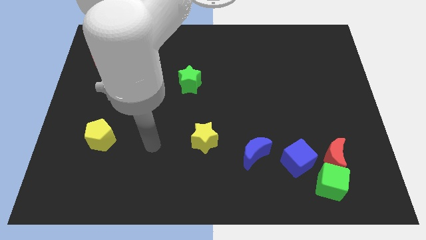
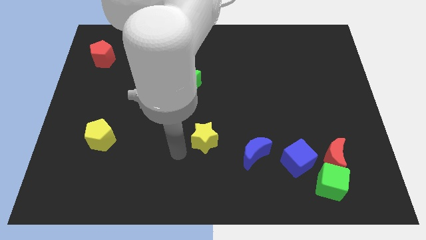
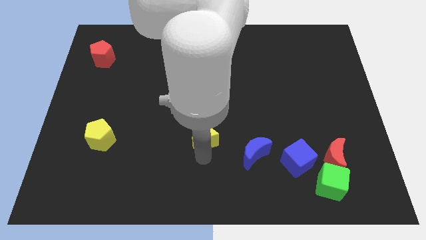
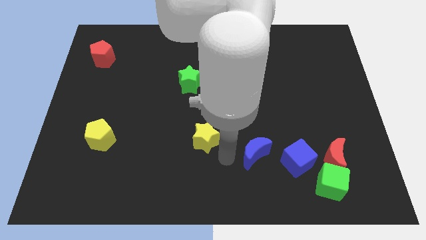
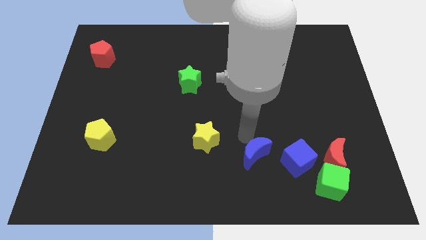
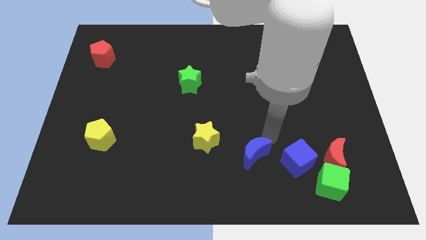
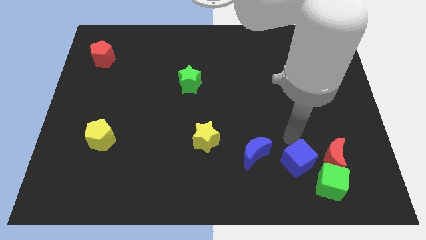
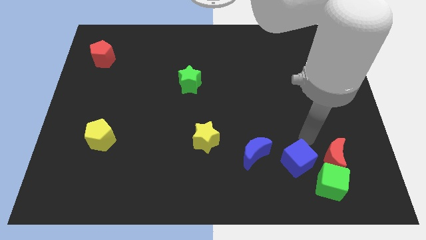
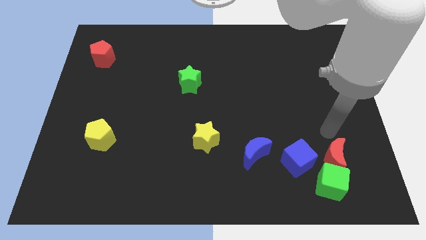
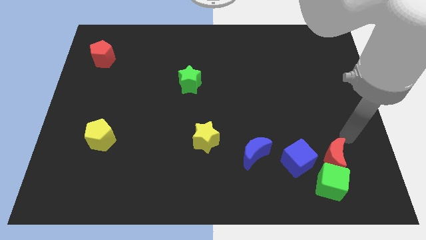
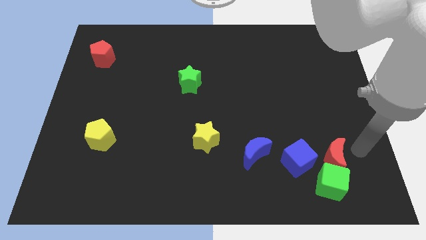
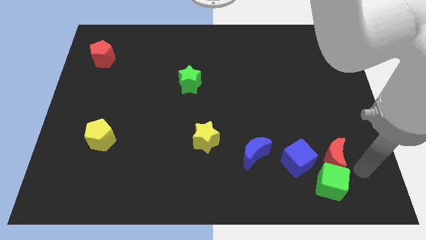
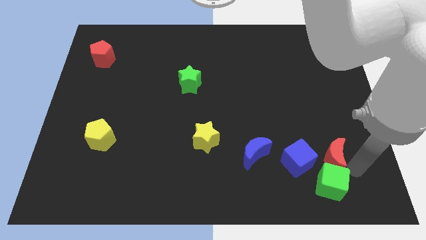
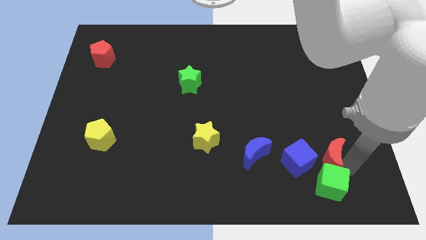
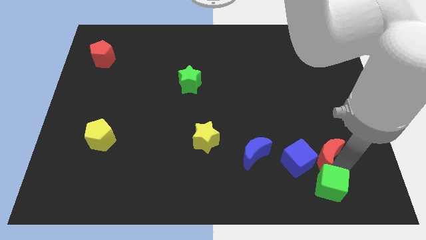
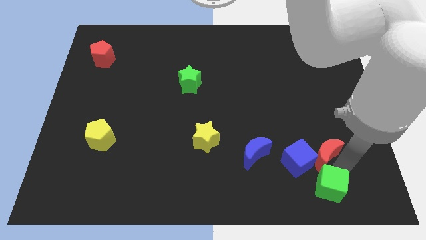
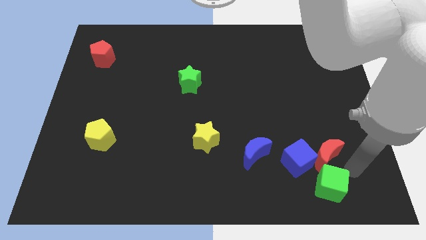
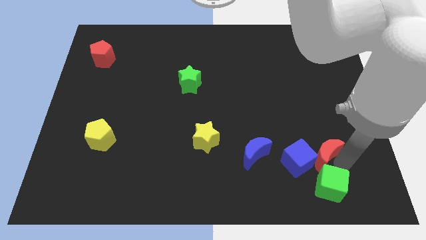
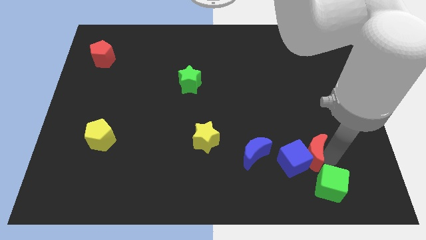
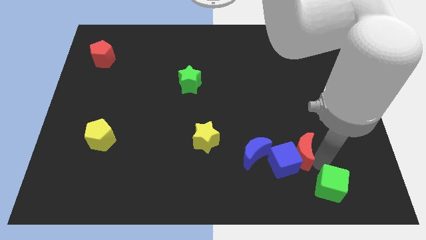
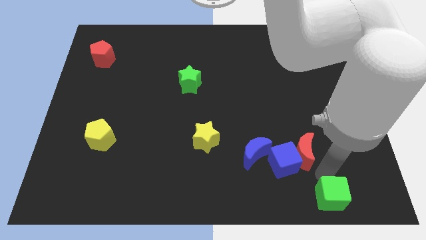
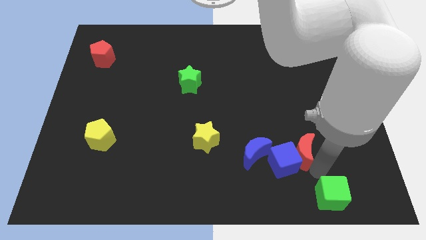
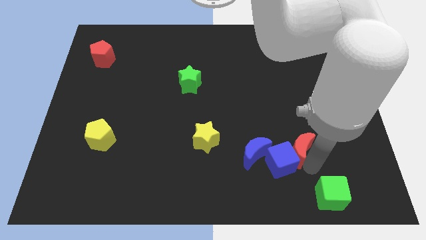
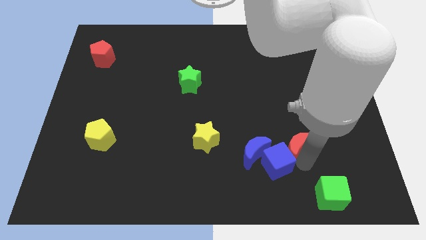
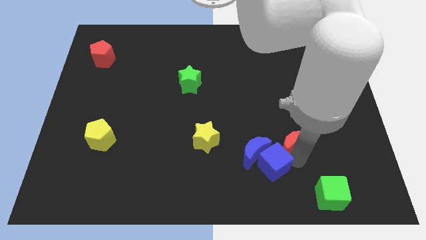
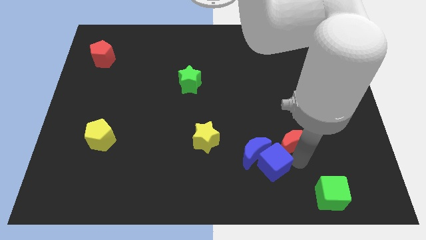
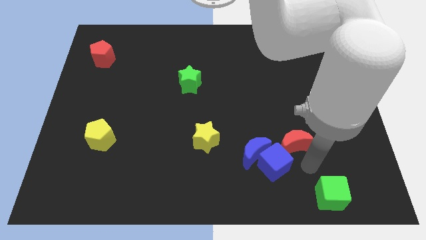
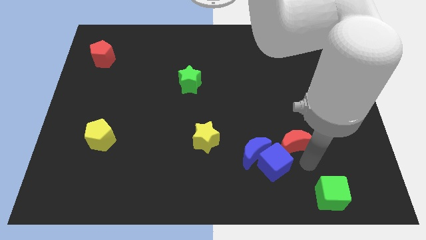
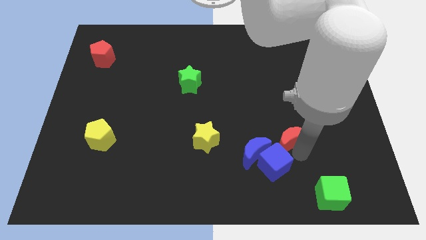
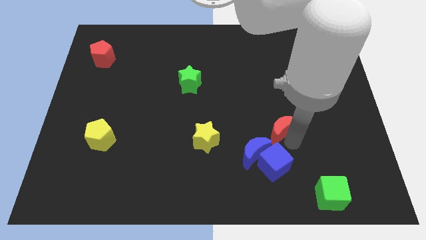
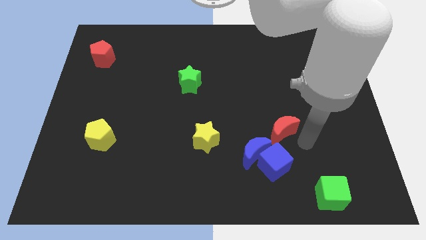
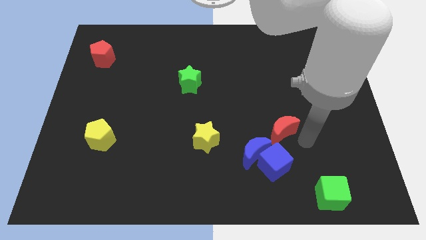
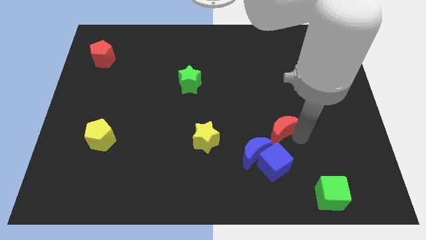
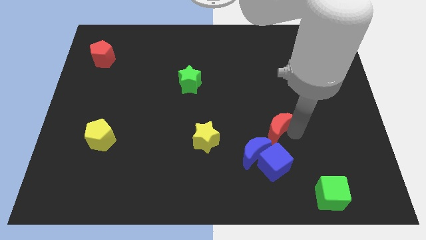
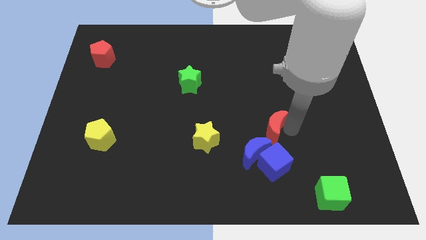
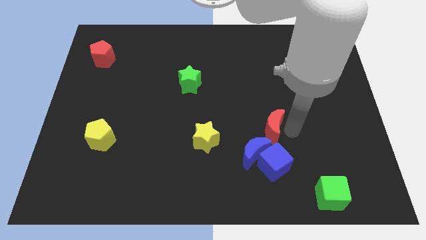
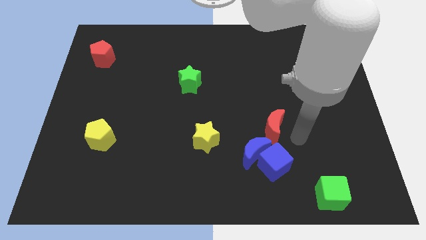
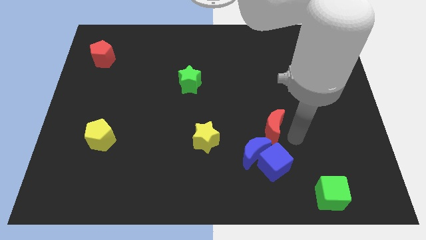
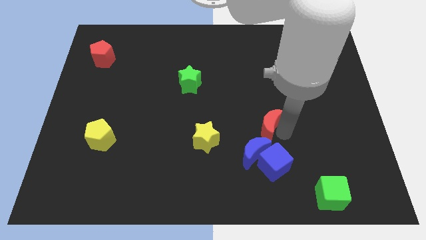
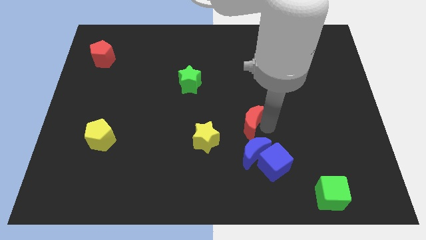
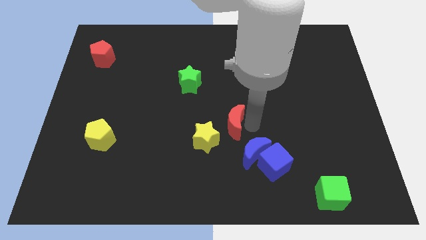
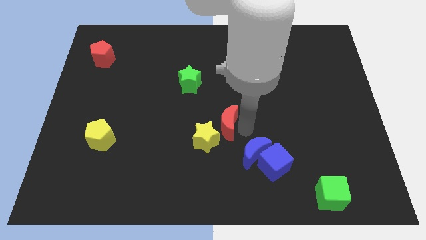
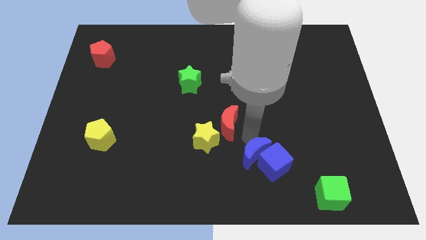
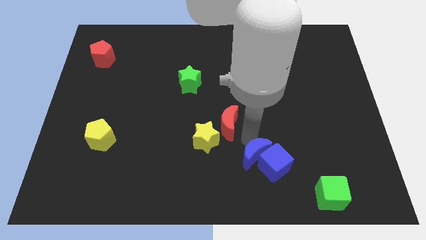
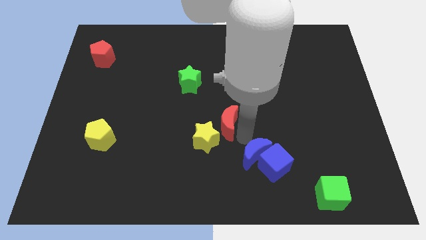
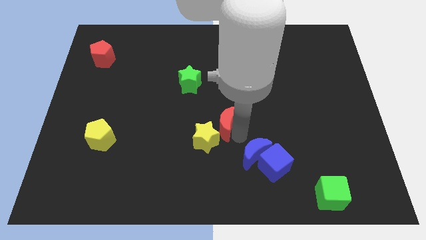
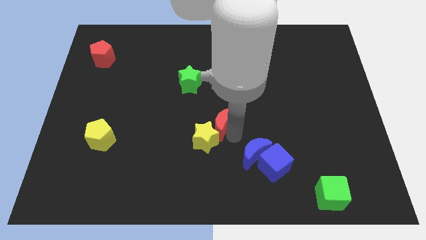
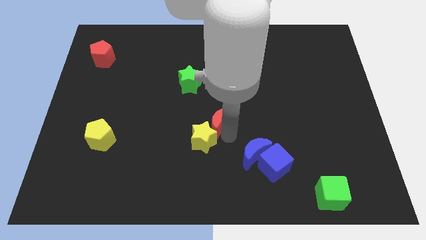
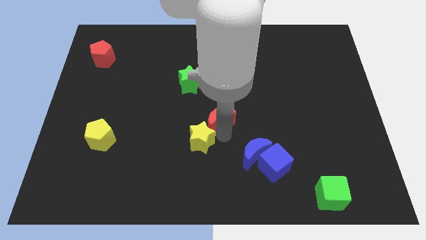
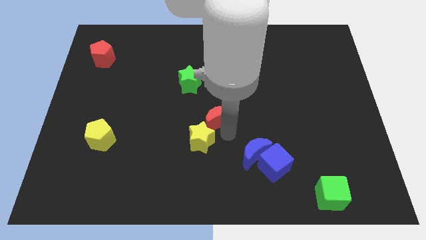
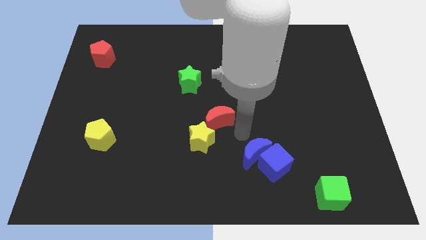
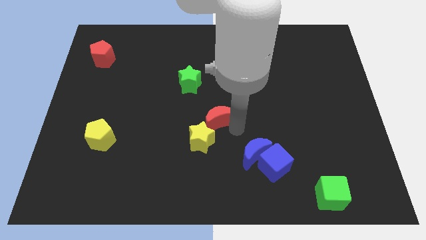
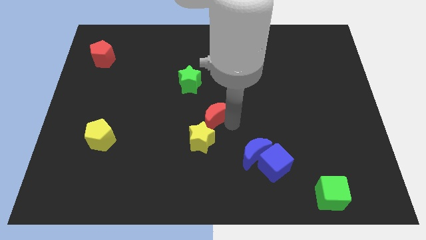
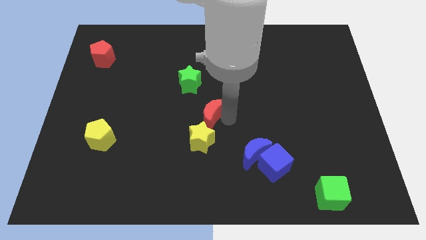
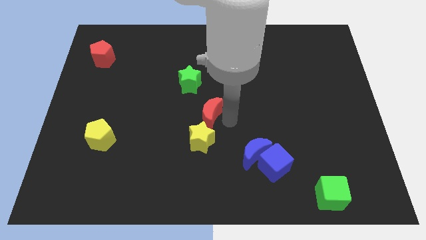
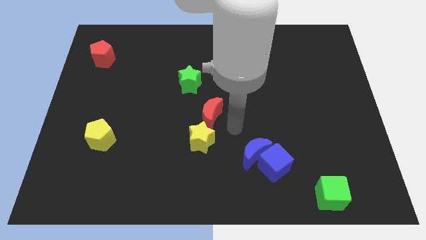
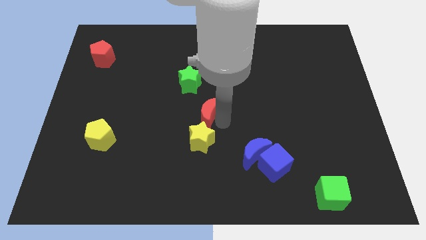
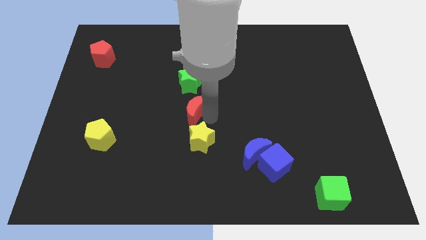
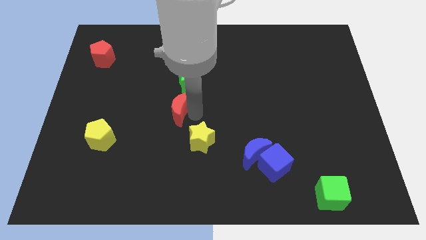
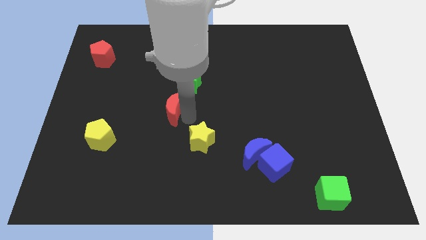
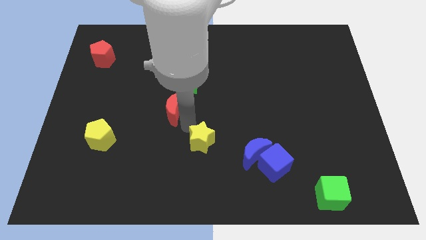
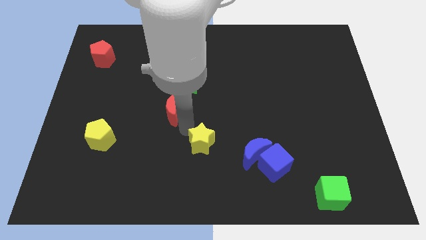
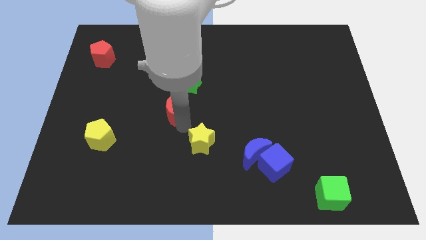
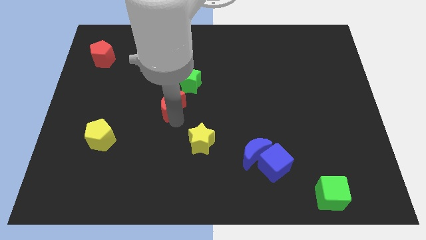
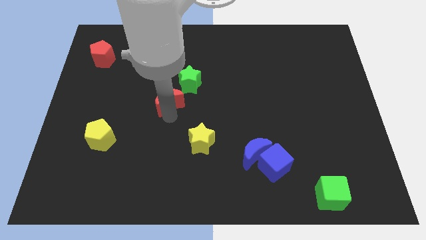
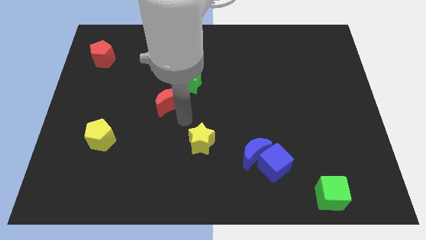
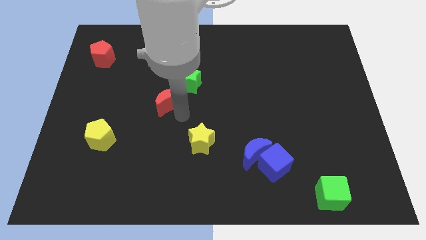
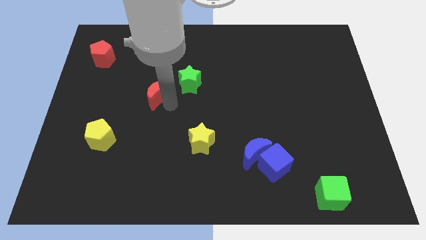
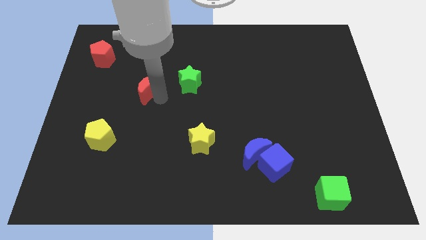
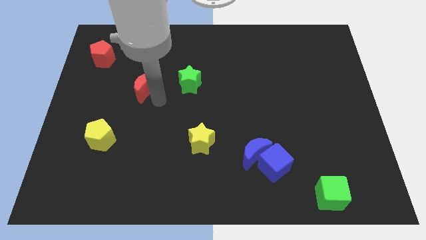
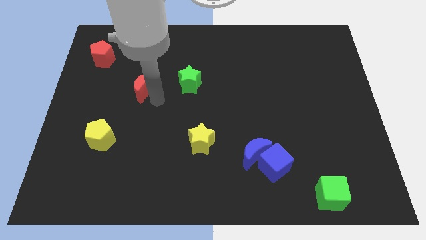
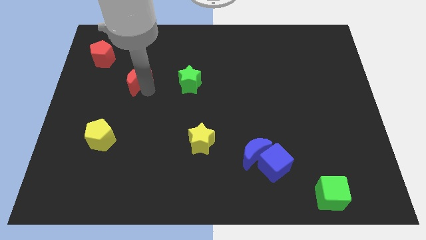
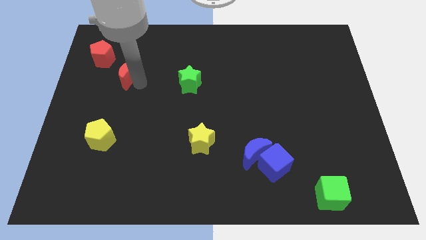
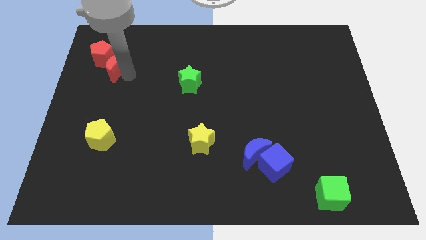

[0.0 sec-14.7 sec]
put the red moon close to the red pentagon

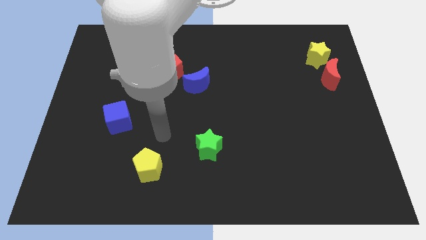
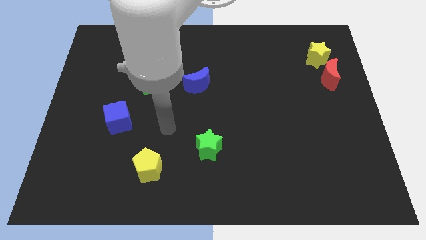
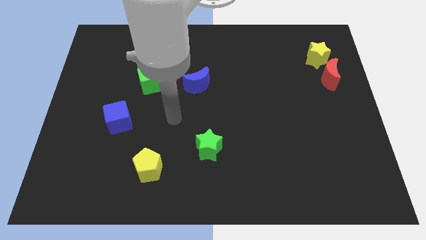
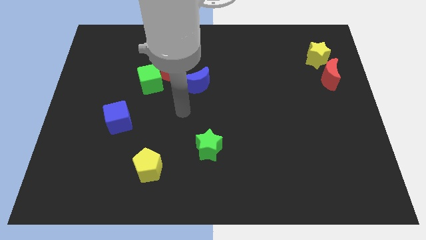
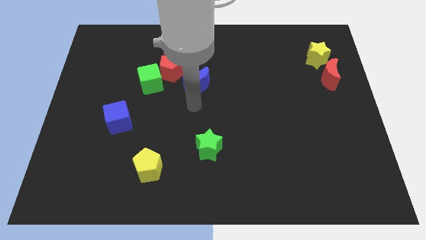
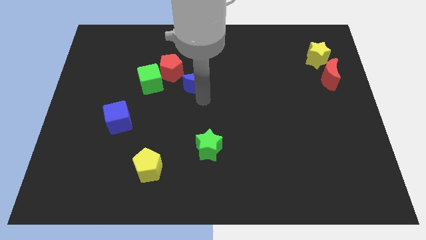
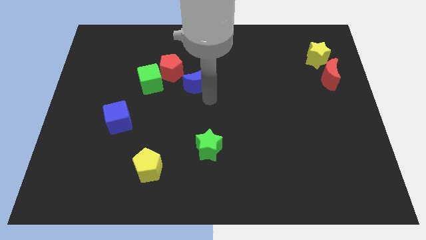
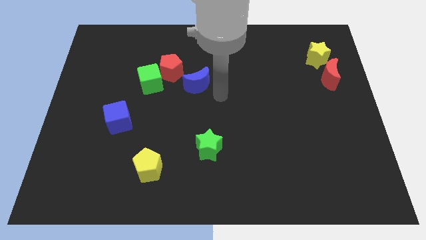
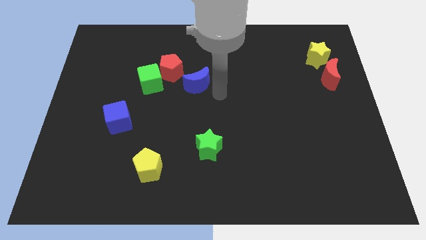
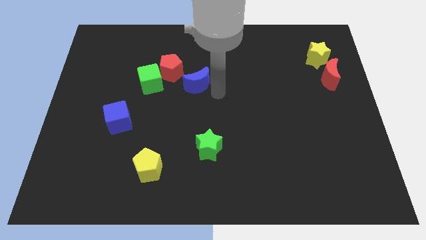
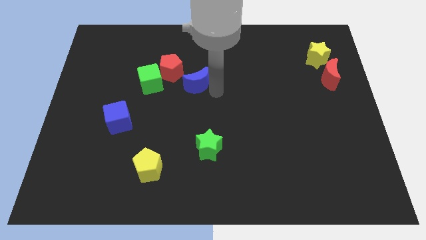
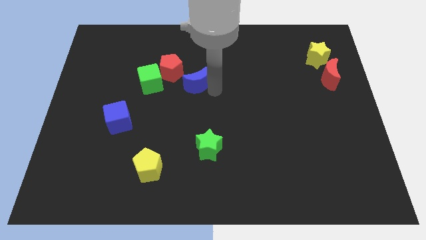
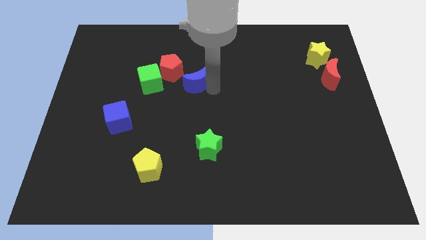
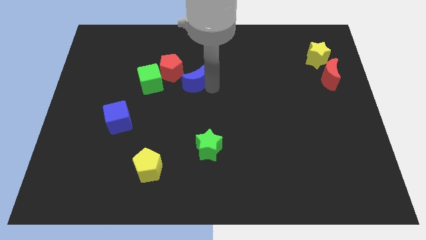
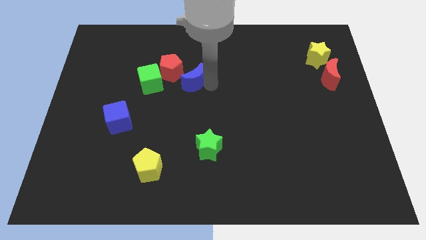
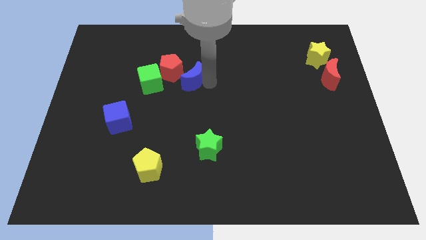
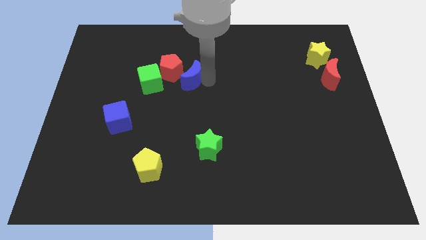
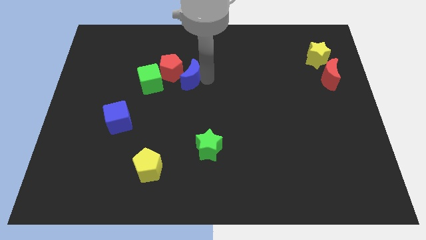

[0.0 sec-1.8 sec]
slide the blue moon towards the red pentagon
